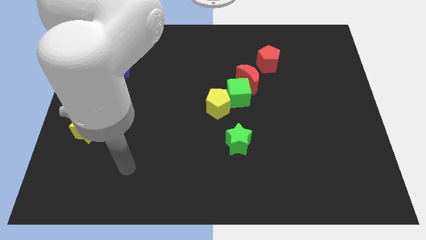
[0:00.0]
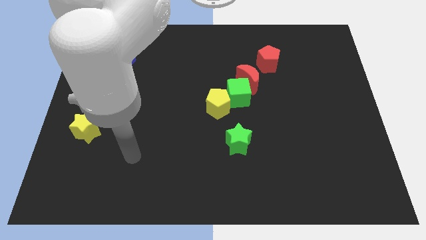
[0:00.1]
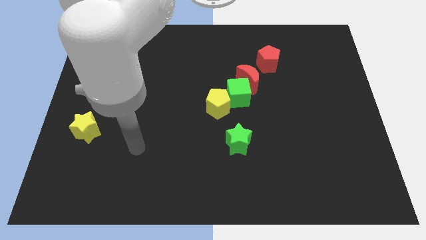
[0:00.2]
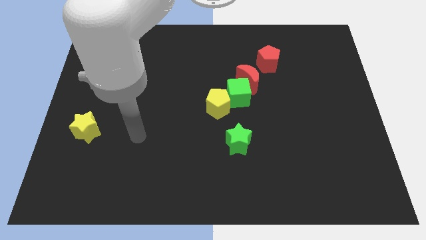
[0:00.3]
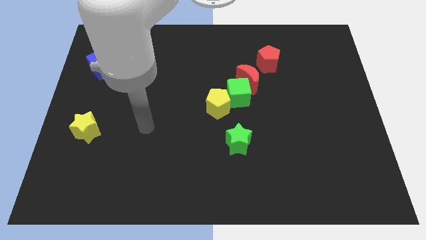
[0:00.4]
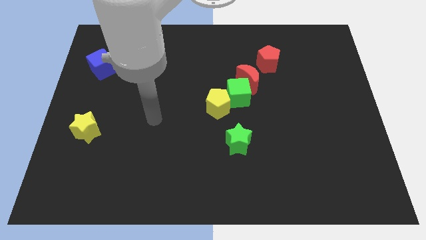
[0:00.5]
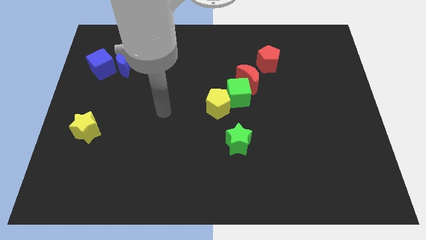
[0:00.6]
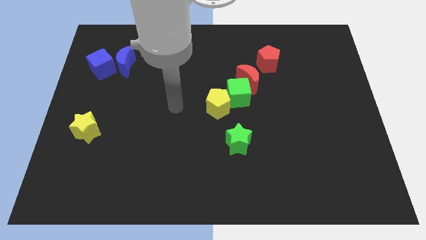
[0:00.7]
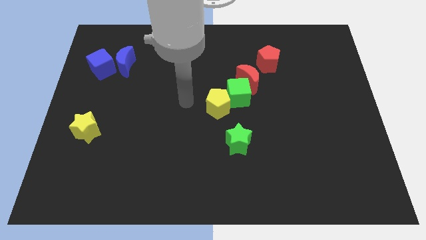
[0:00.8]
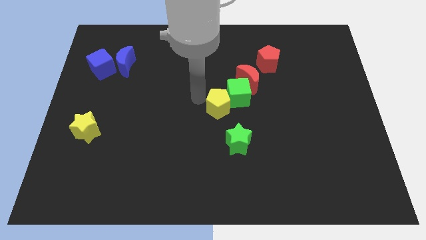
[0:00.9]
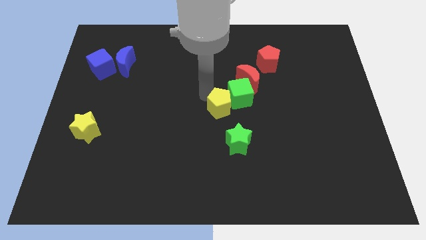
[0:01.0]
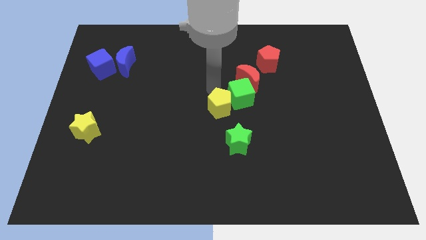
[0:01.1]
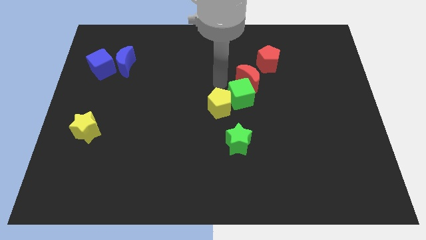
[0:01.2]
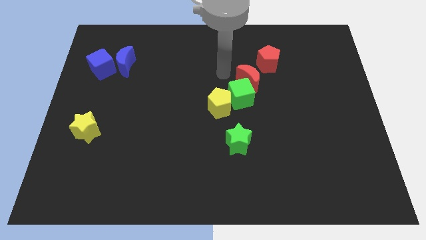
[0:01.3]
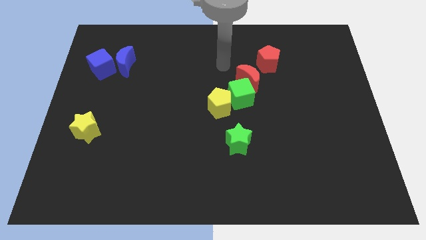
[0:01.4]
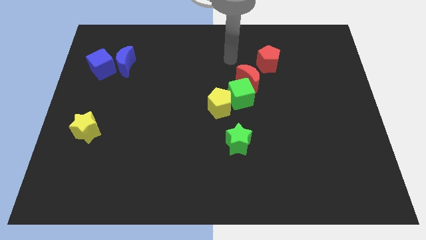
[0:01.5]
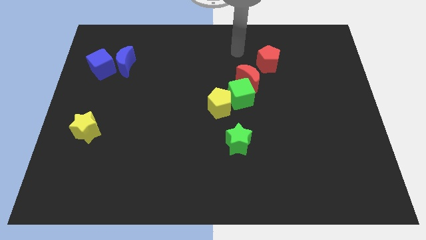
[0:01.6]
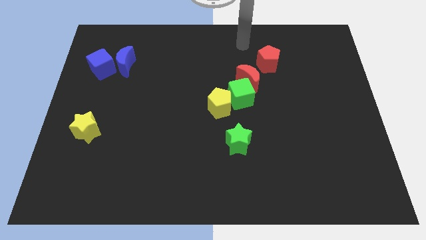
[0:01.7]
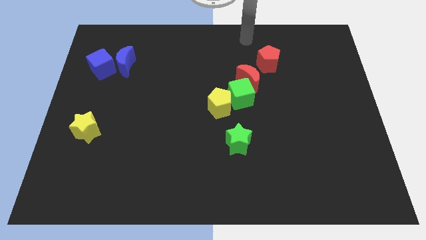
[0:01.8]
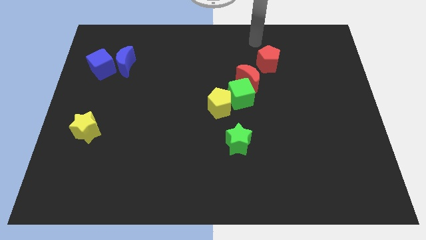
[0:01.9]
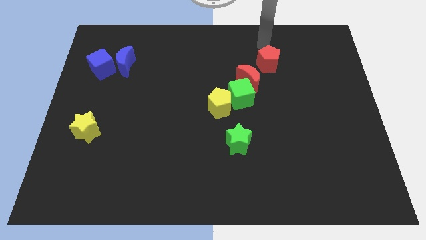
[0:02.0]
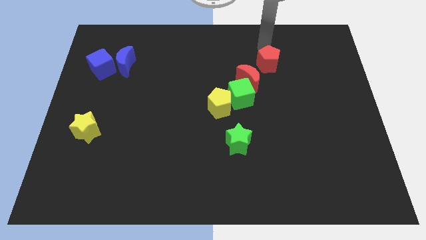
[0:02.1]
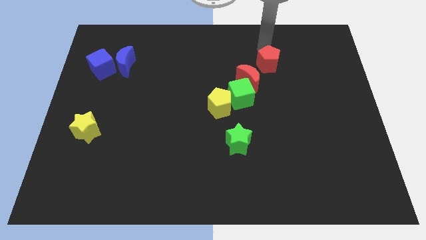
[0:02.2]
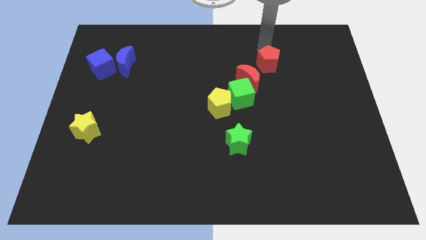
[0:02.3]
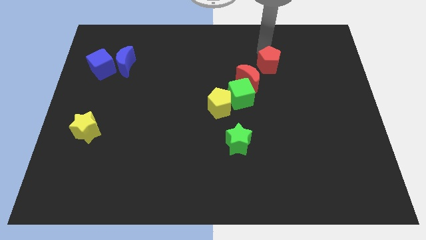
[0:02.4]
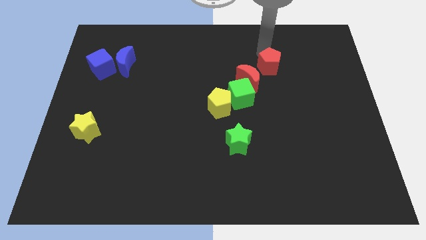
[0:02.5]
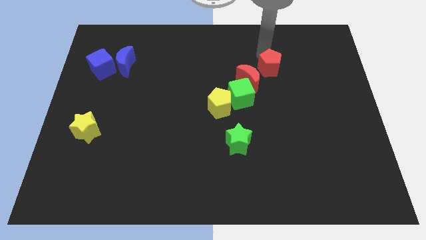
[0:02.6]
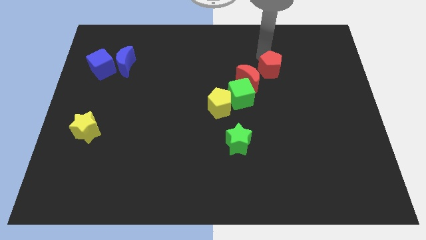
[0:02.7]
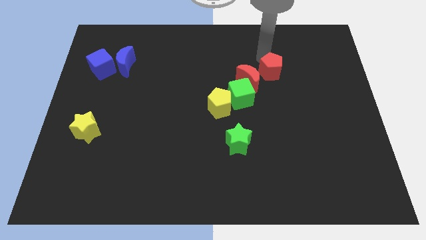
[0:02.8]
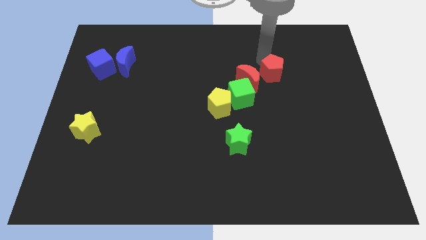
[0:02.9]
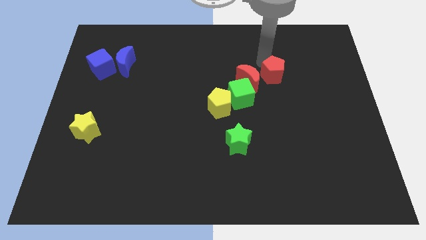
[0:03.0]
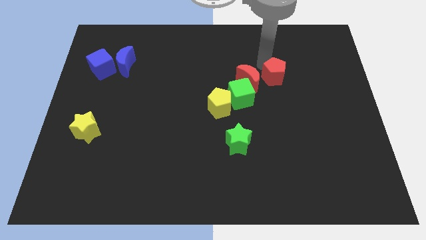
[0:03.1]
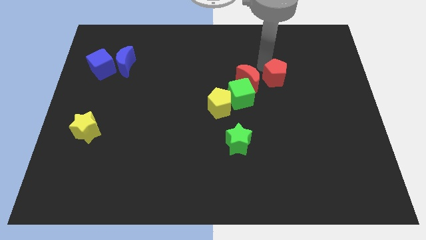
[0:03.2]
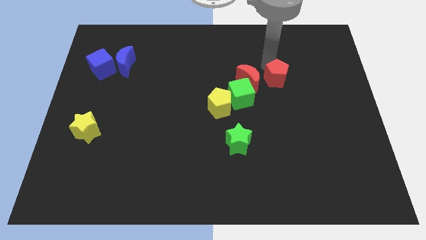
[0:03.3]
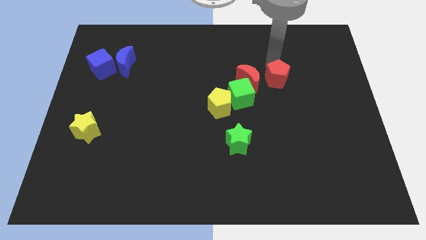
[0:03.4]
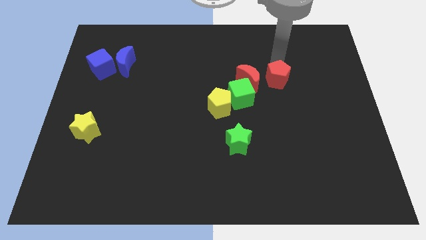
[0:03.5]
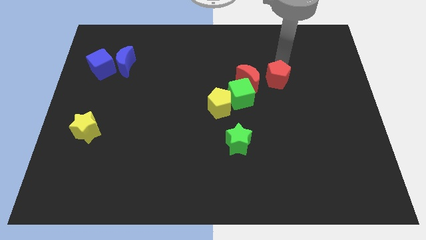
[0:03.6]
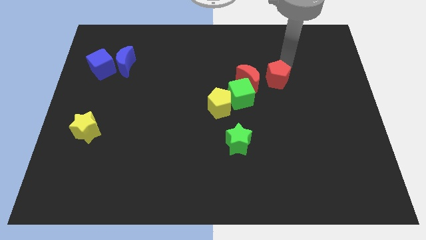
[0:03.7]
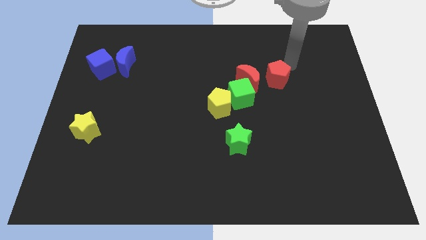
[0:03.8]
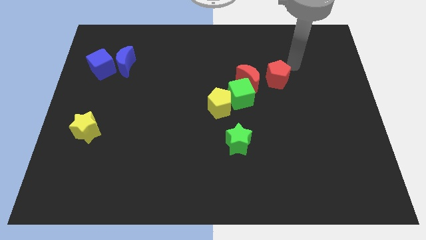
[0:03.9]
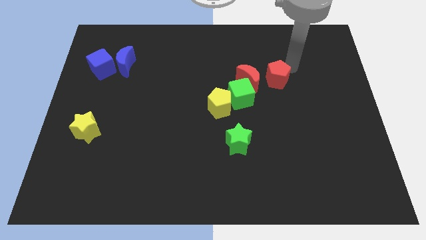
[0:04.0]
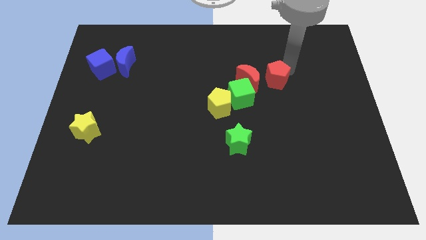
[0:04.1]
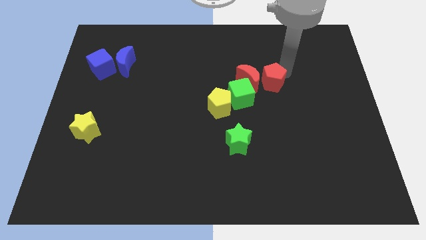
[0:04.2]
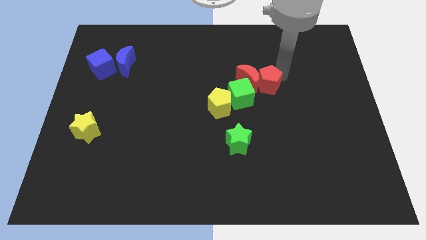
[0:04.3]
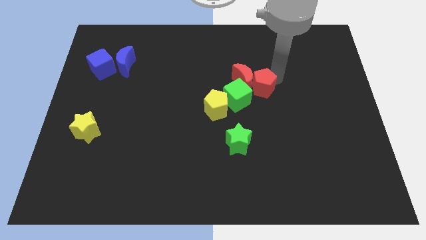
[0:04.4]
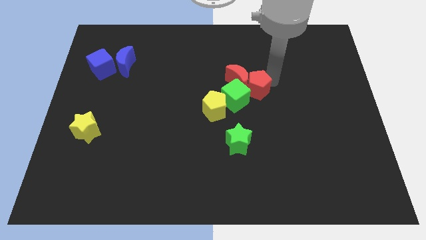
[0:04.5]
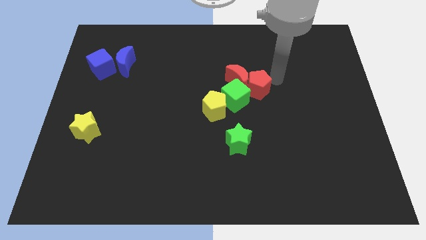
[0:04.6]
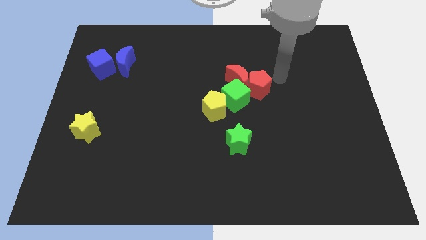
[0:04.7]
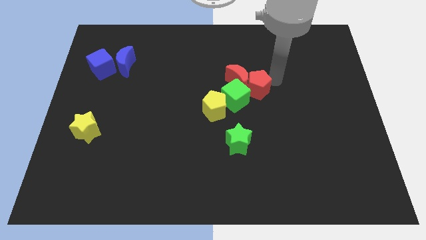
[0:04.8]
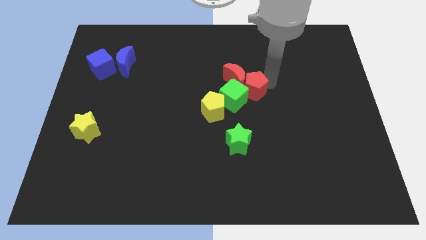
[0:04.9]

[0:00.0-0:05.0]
move the red pentagon close to the green cube

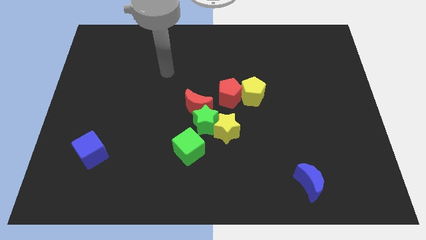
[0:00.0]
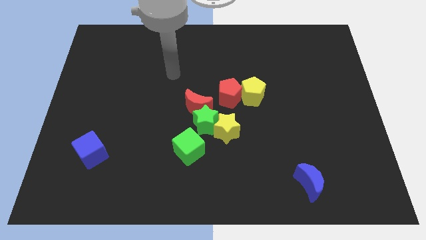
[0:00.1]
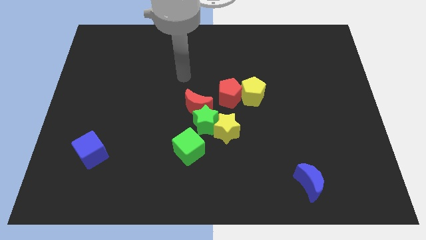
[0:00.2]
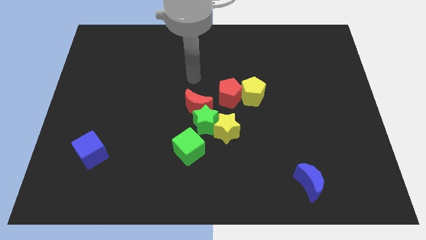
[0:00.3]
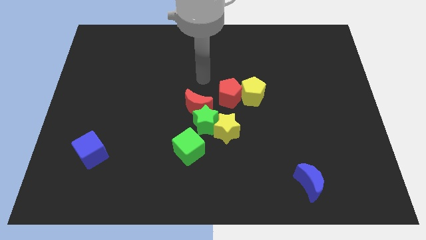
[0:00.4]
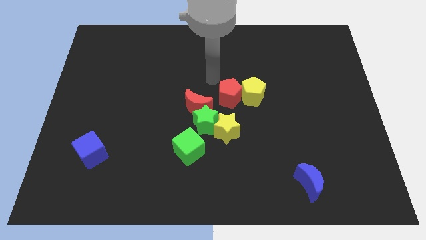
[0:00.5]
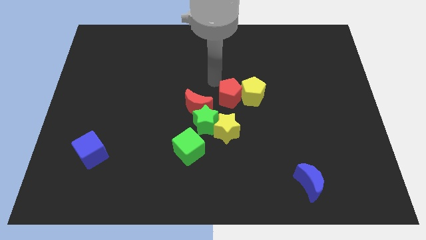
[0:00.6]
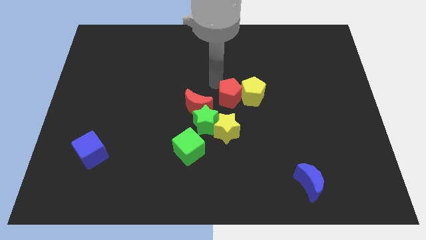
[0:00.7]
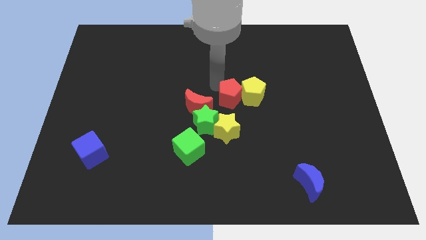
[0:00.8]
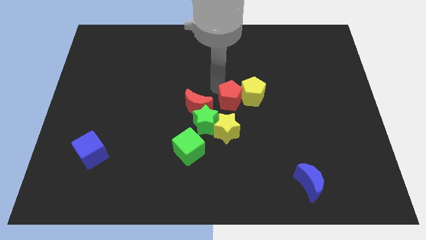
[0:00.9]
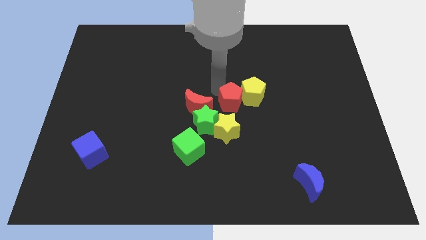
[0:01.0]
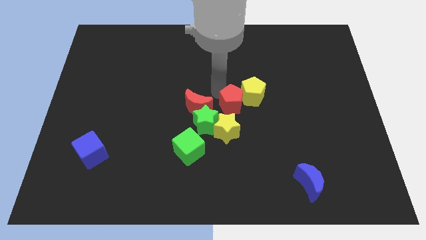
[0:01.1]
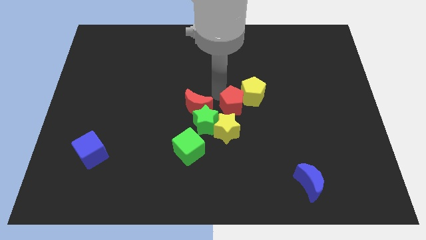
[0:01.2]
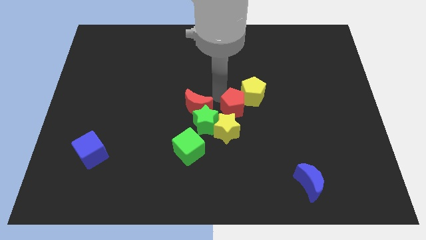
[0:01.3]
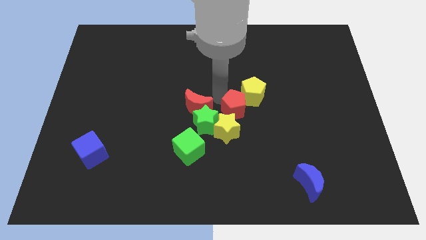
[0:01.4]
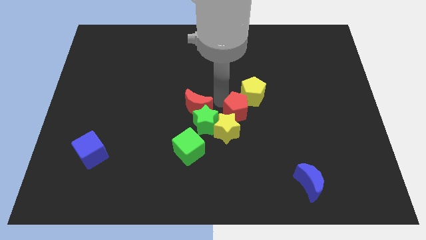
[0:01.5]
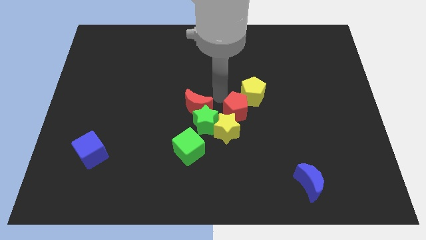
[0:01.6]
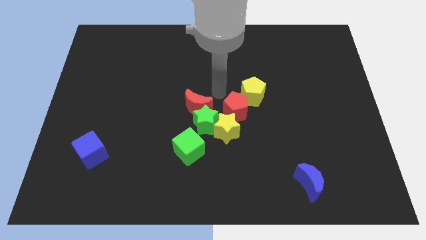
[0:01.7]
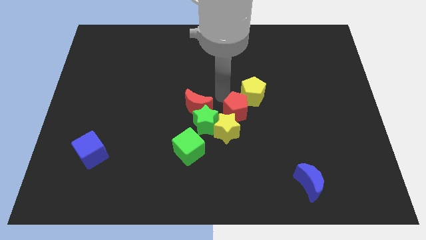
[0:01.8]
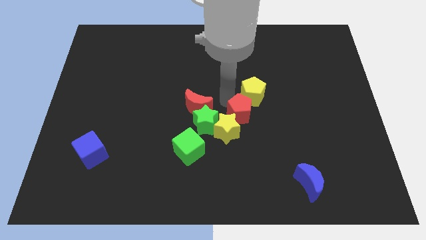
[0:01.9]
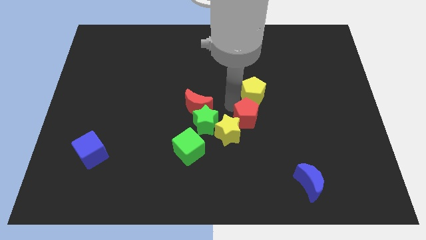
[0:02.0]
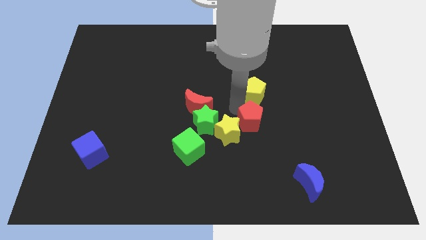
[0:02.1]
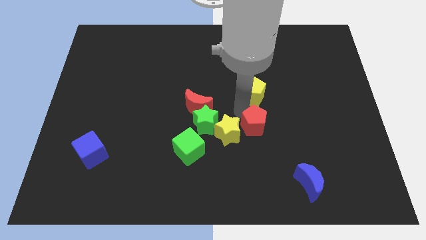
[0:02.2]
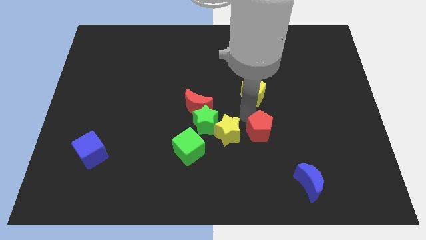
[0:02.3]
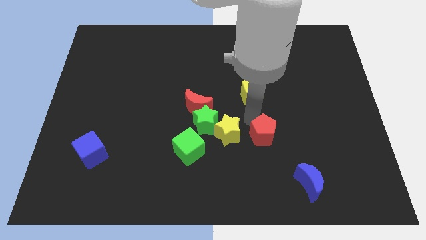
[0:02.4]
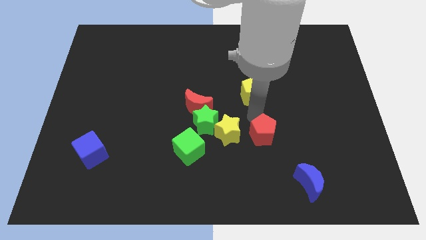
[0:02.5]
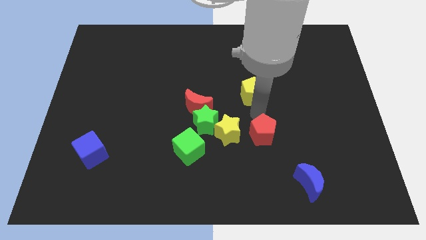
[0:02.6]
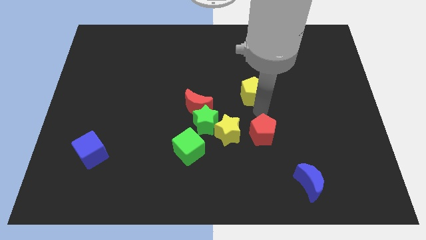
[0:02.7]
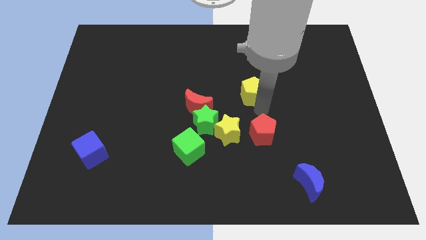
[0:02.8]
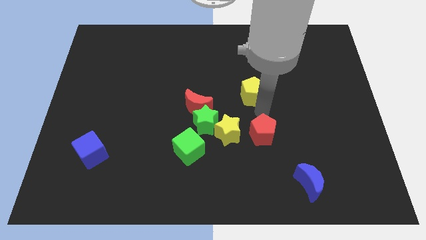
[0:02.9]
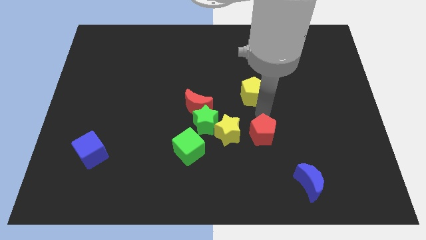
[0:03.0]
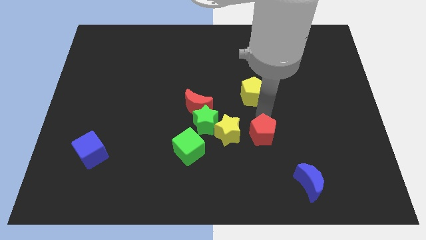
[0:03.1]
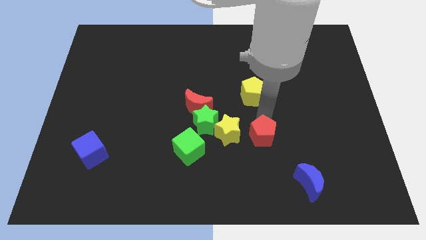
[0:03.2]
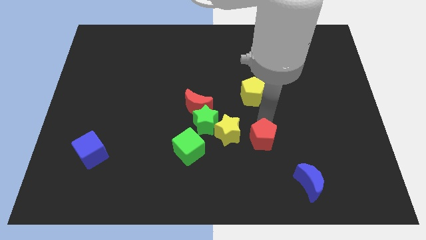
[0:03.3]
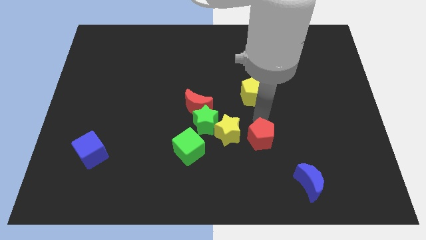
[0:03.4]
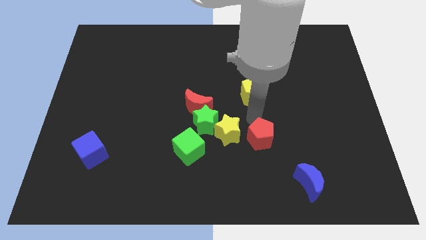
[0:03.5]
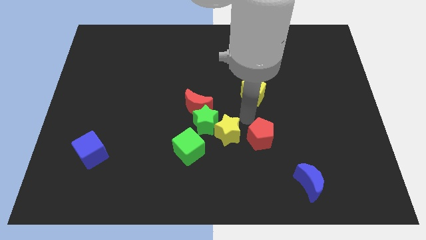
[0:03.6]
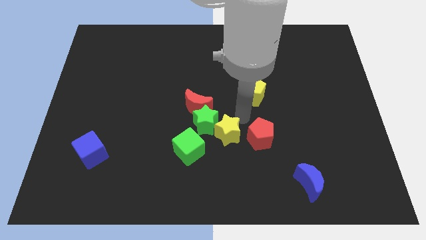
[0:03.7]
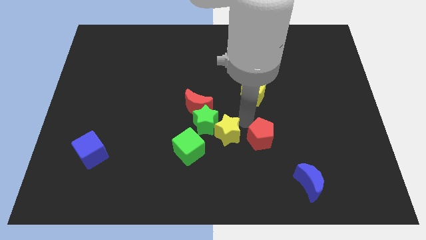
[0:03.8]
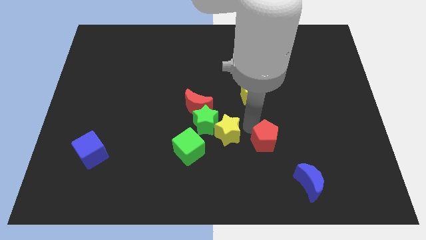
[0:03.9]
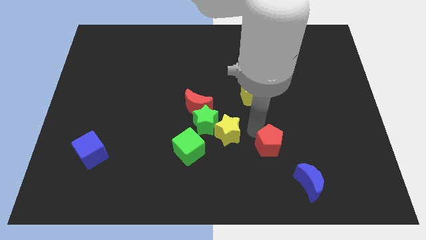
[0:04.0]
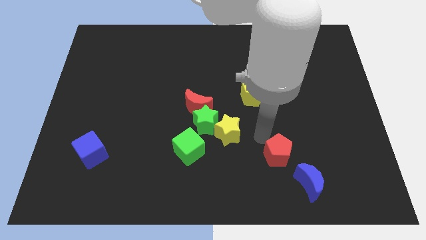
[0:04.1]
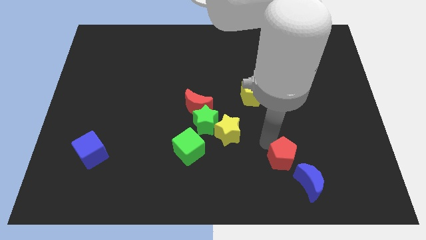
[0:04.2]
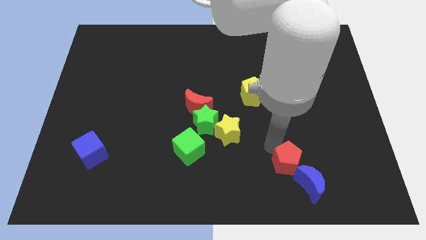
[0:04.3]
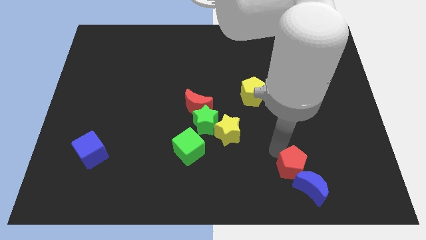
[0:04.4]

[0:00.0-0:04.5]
move the red pentagon next to the blue moon
